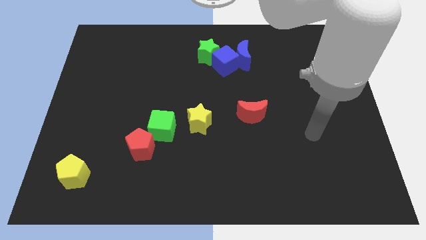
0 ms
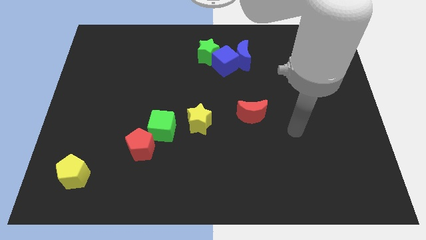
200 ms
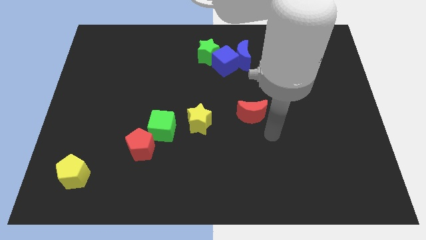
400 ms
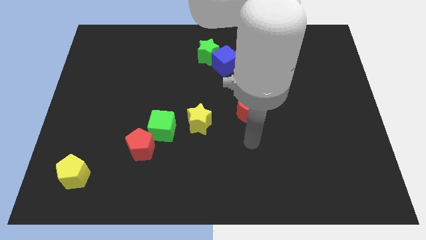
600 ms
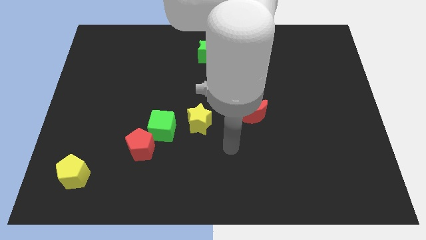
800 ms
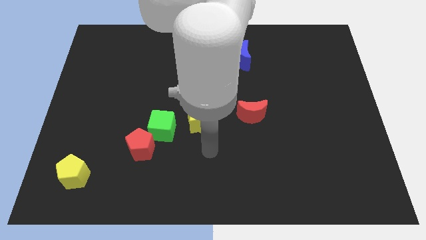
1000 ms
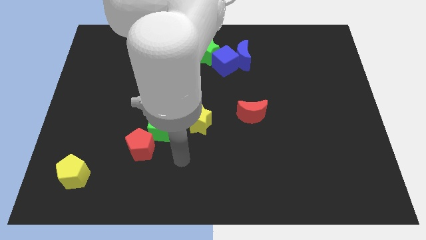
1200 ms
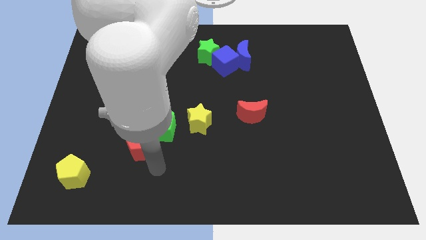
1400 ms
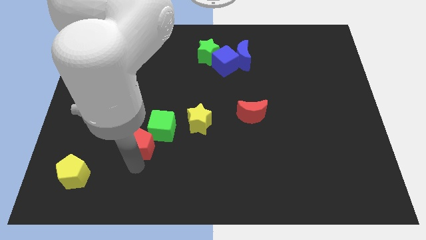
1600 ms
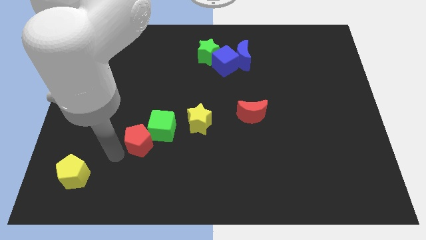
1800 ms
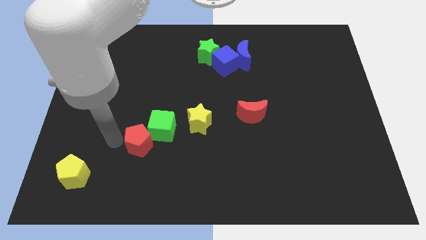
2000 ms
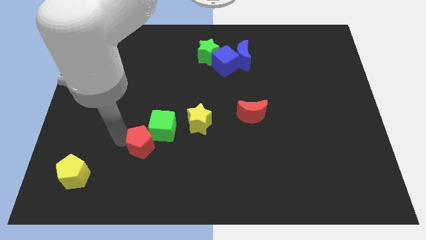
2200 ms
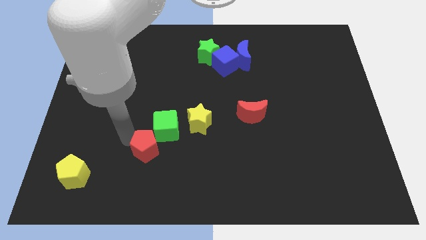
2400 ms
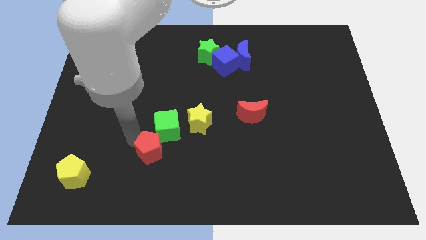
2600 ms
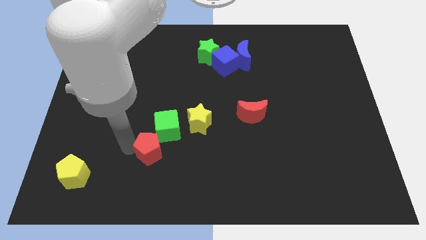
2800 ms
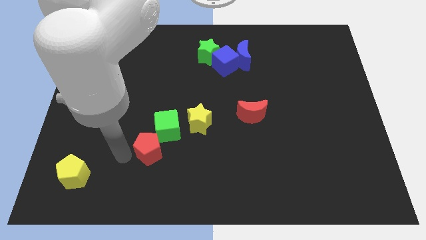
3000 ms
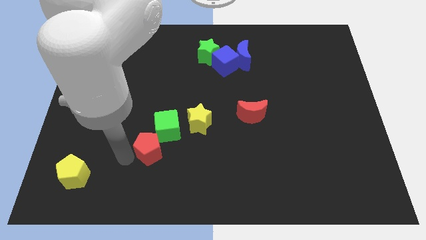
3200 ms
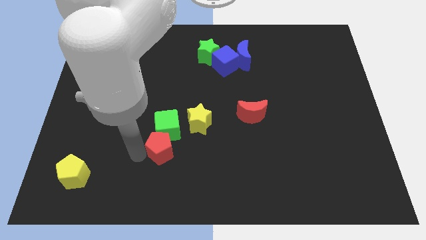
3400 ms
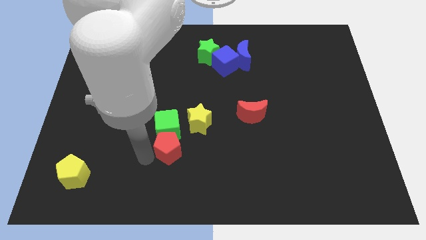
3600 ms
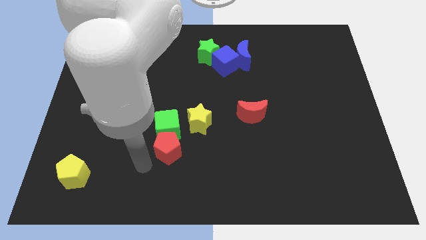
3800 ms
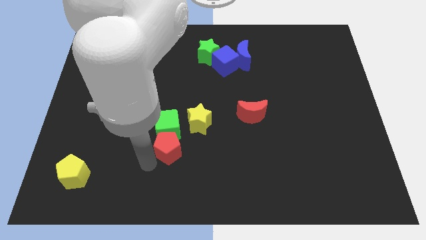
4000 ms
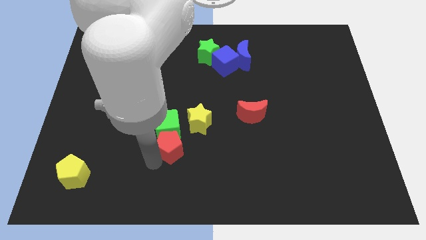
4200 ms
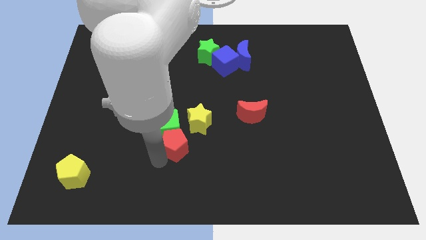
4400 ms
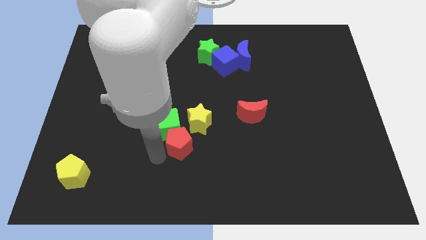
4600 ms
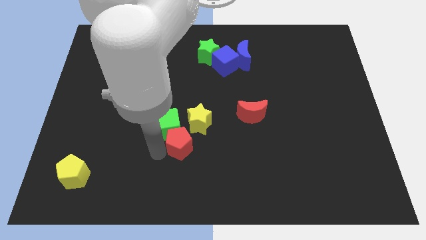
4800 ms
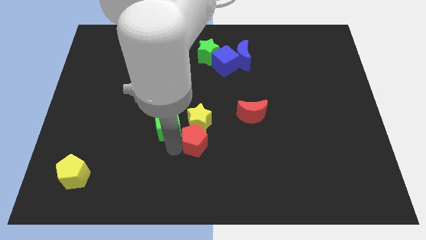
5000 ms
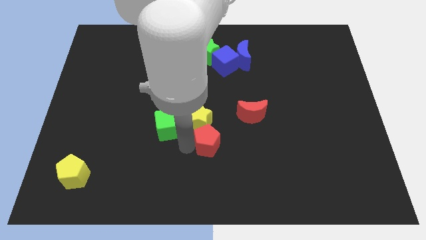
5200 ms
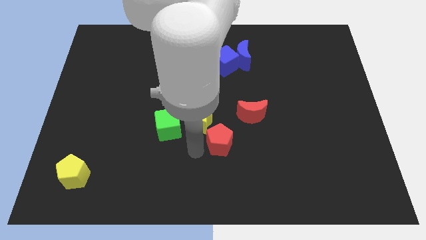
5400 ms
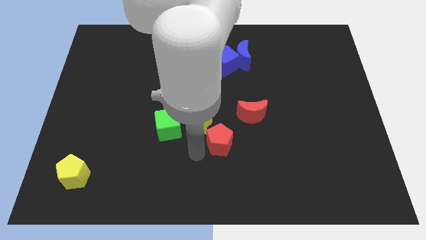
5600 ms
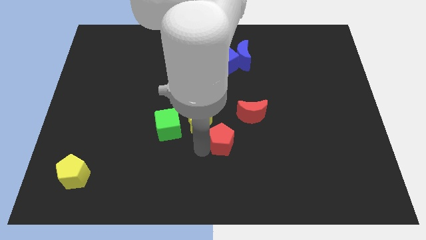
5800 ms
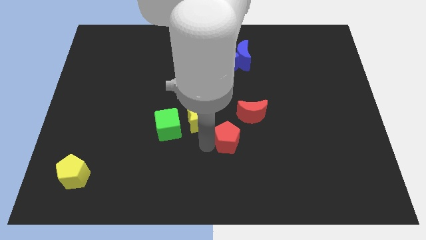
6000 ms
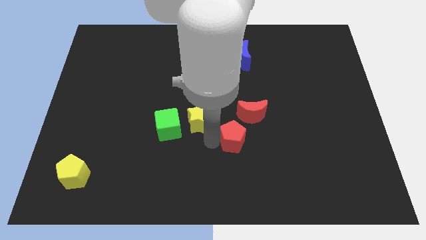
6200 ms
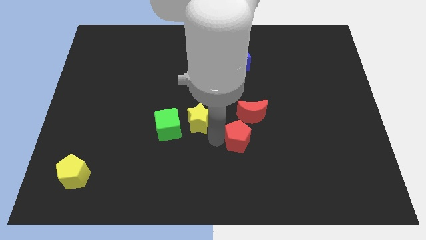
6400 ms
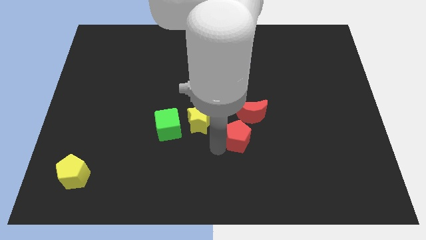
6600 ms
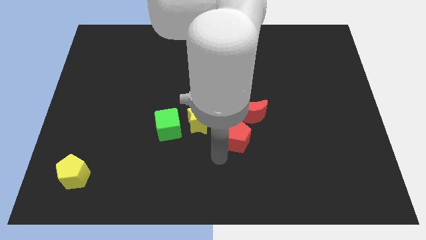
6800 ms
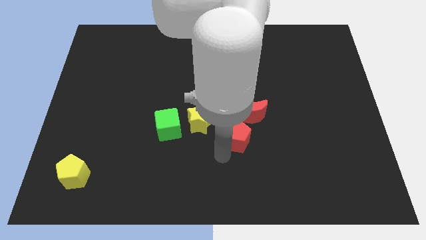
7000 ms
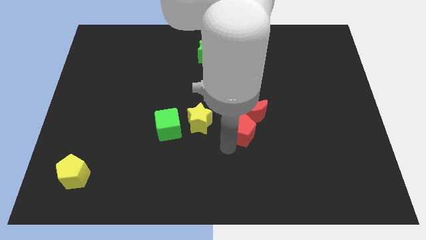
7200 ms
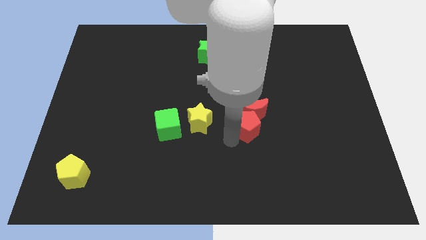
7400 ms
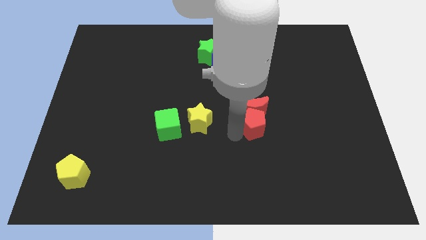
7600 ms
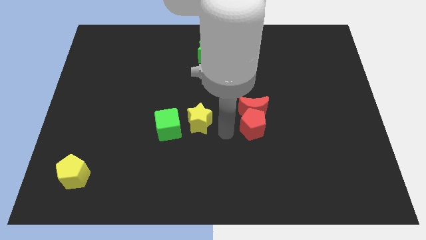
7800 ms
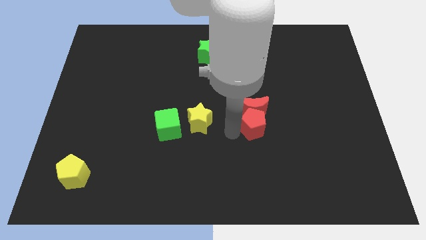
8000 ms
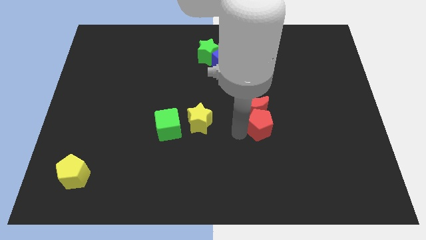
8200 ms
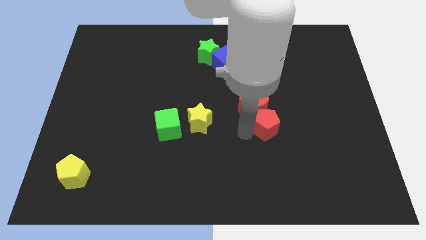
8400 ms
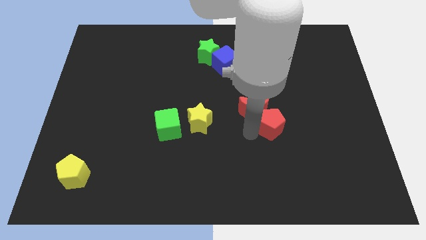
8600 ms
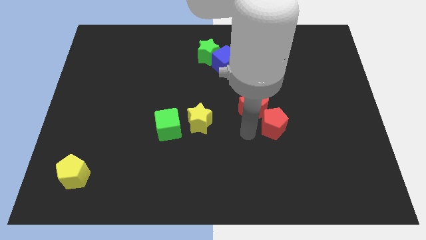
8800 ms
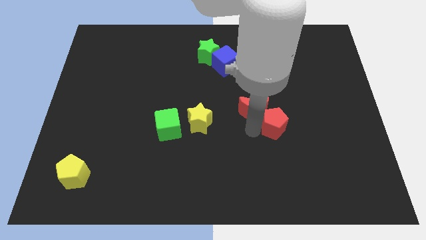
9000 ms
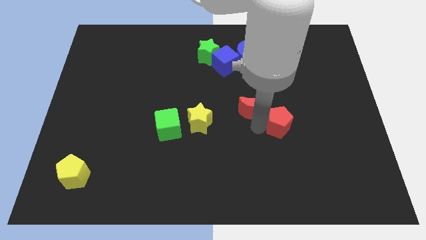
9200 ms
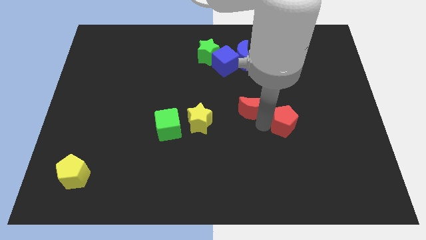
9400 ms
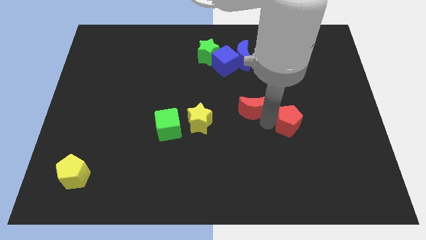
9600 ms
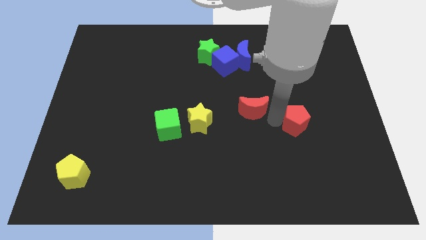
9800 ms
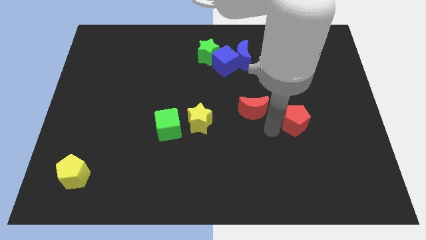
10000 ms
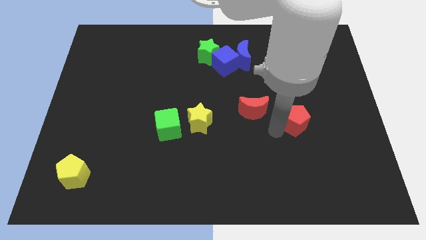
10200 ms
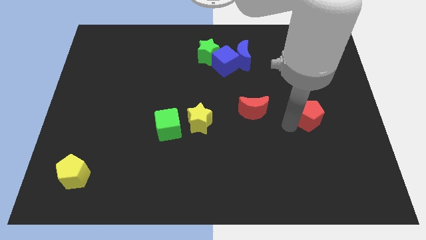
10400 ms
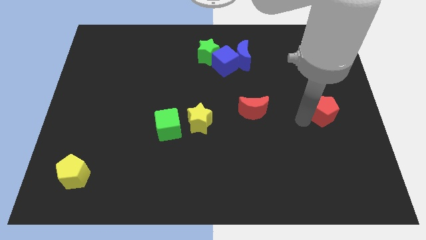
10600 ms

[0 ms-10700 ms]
push the red pentagon to the right side of the board

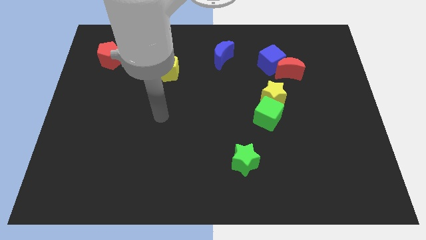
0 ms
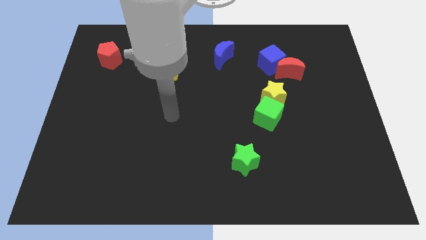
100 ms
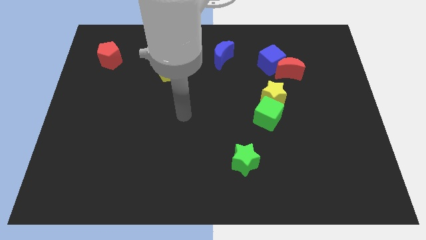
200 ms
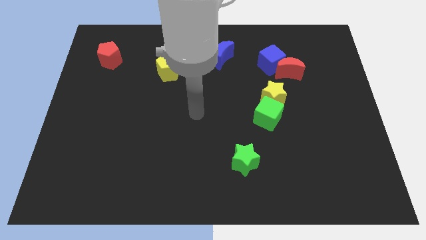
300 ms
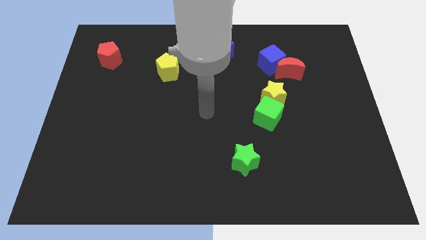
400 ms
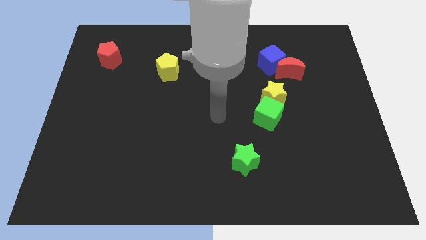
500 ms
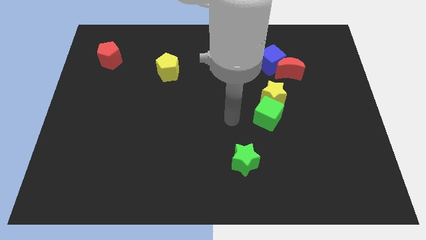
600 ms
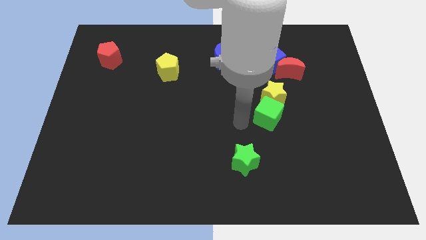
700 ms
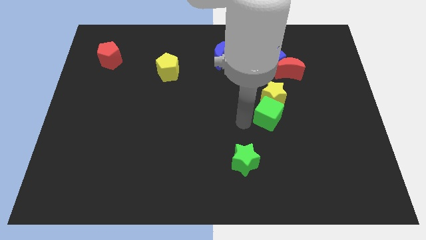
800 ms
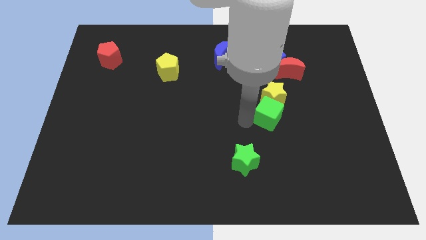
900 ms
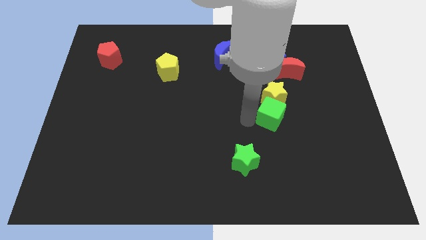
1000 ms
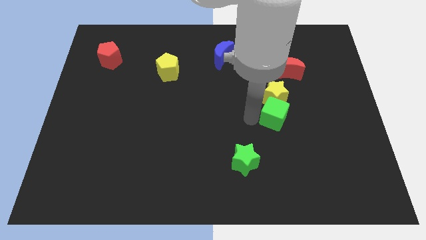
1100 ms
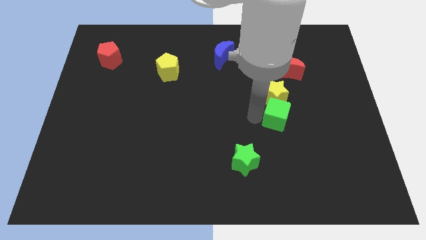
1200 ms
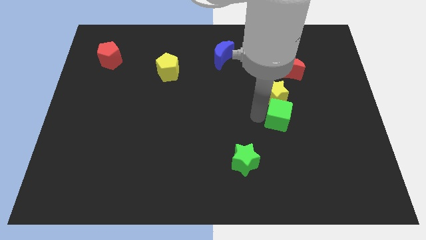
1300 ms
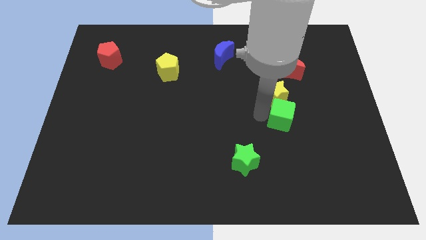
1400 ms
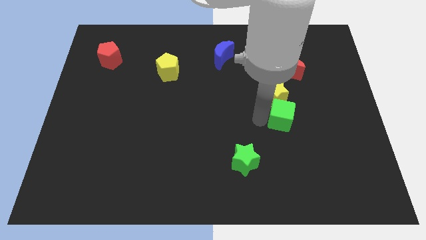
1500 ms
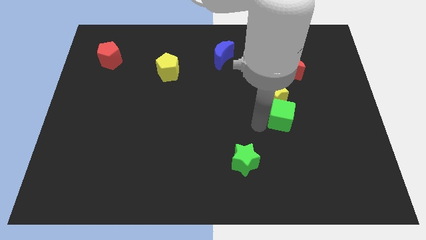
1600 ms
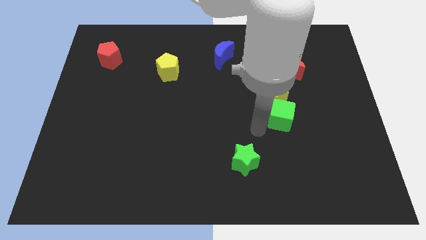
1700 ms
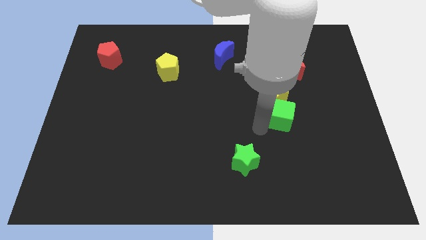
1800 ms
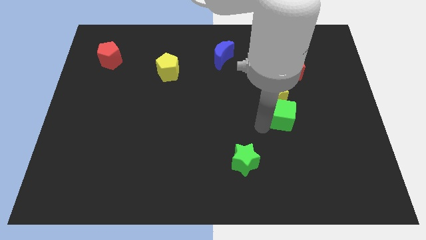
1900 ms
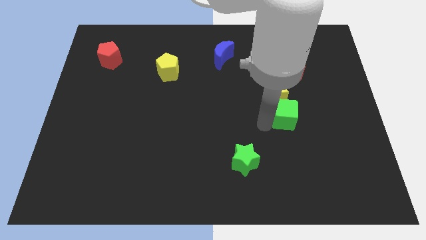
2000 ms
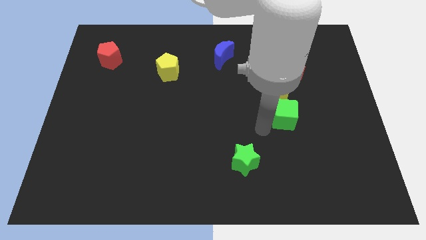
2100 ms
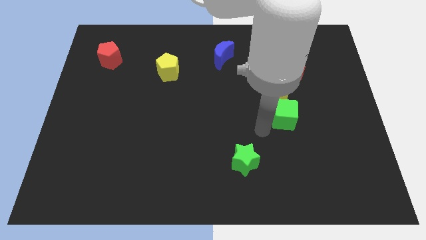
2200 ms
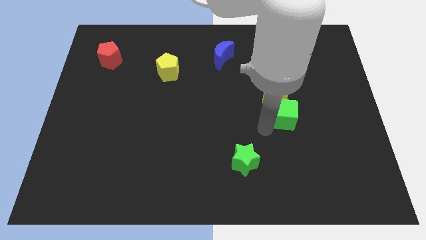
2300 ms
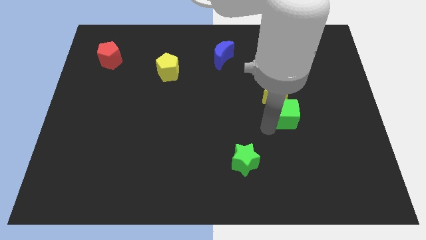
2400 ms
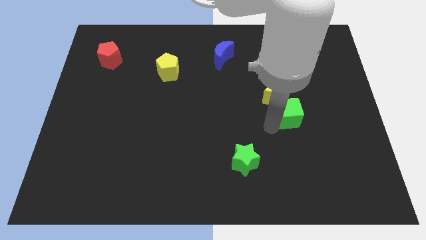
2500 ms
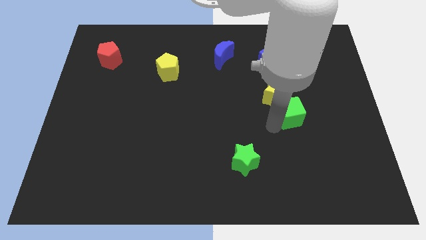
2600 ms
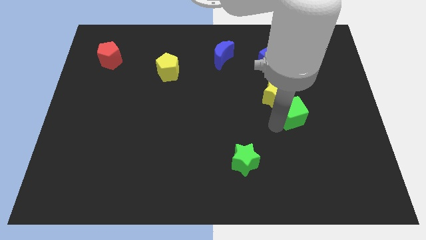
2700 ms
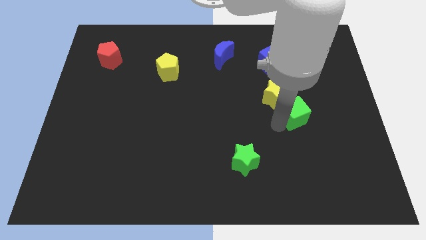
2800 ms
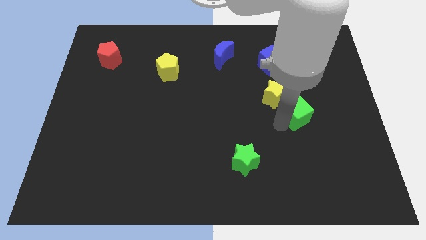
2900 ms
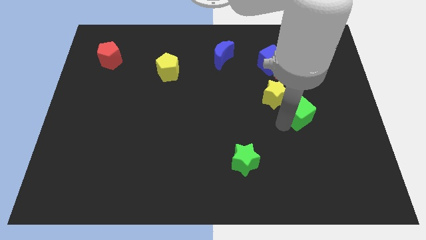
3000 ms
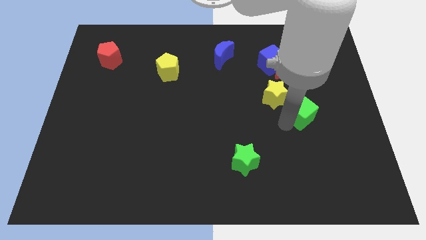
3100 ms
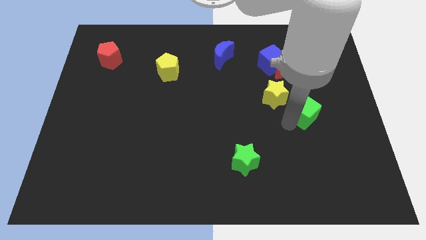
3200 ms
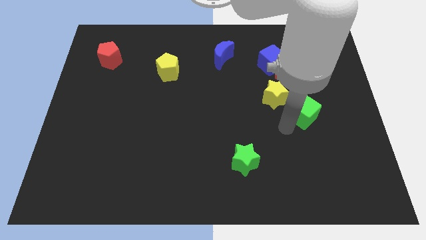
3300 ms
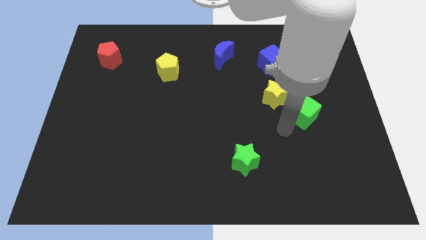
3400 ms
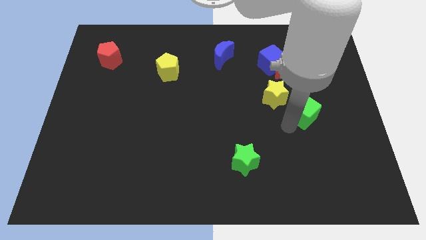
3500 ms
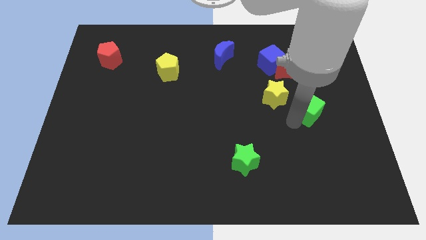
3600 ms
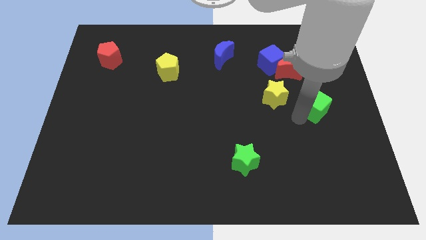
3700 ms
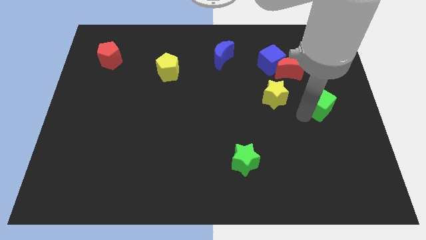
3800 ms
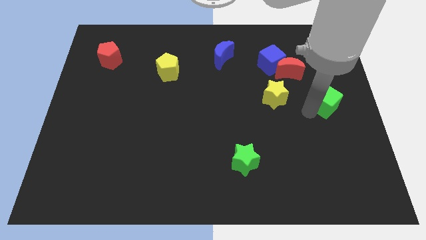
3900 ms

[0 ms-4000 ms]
put the green cube to the center right
